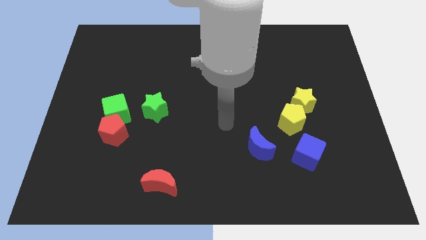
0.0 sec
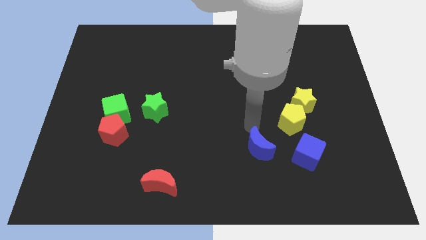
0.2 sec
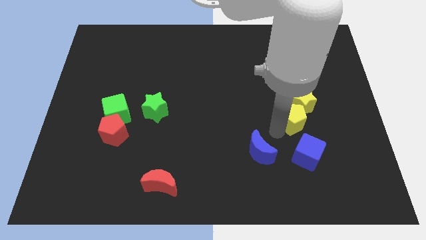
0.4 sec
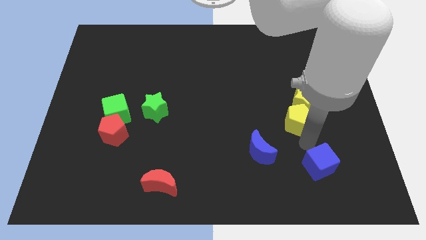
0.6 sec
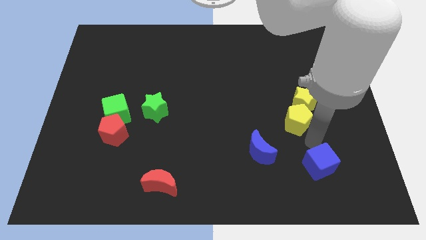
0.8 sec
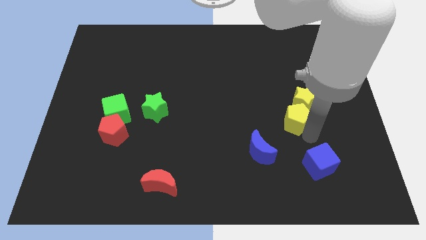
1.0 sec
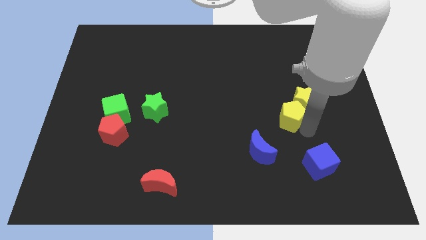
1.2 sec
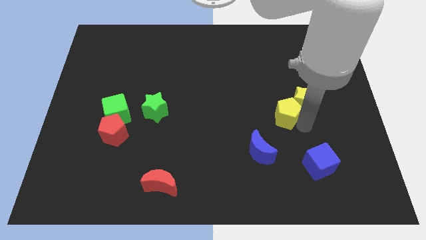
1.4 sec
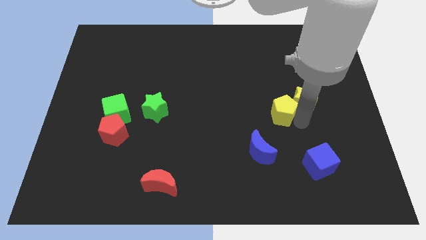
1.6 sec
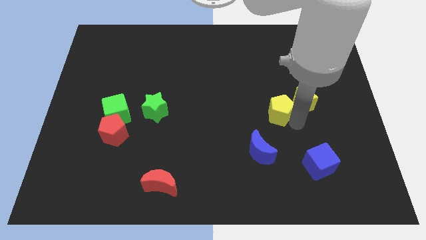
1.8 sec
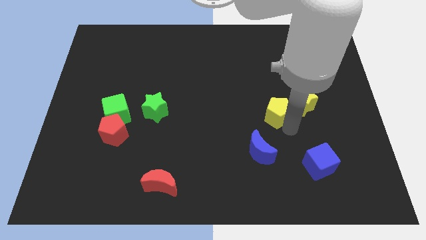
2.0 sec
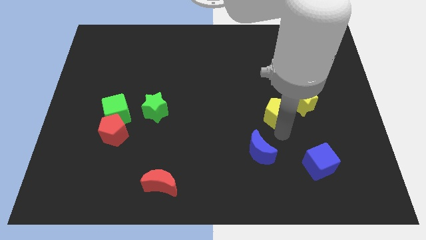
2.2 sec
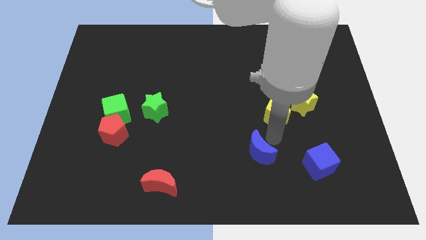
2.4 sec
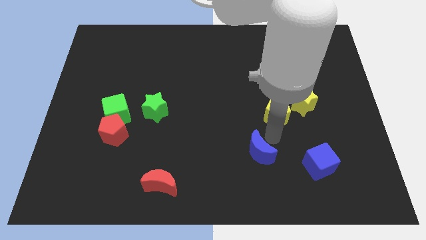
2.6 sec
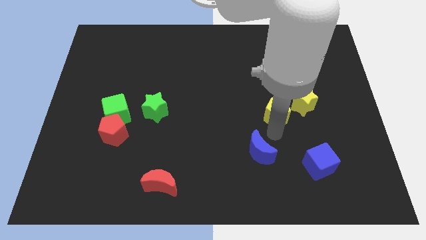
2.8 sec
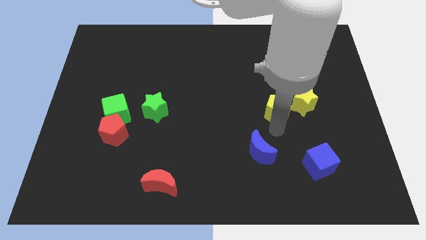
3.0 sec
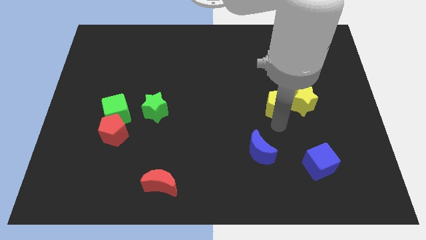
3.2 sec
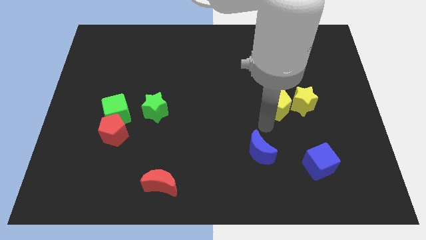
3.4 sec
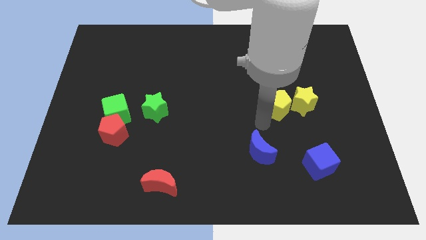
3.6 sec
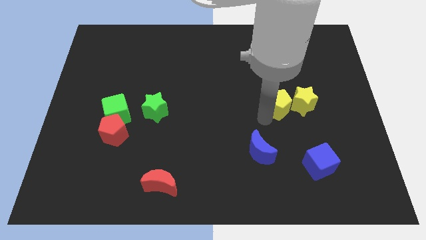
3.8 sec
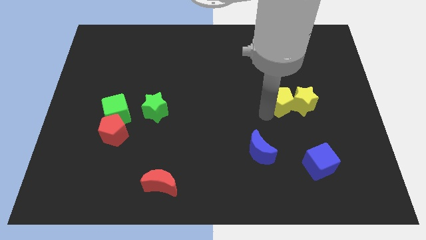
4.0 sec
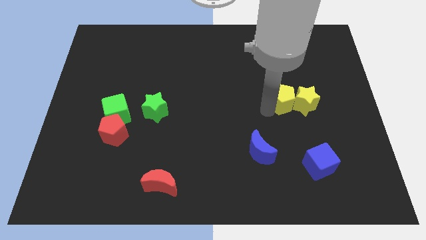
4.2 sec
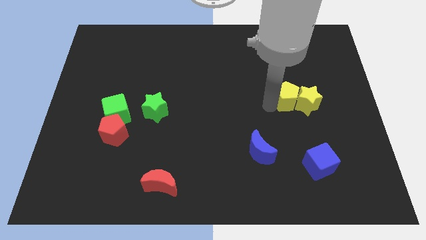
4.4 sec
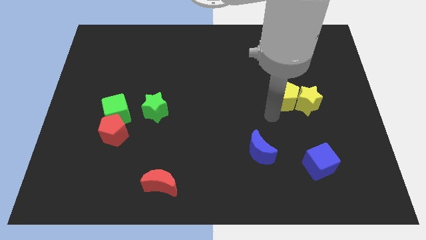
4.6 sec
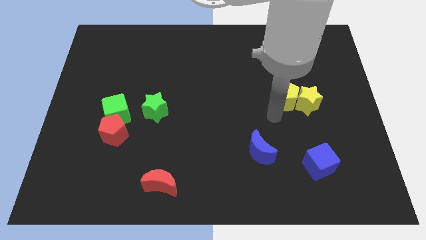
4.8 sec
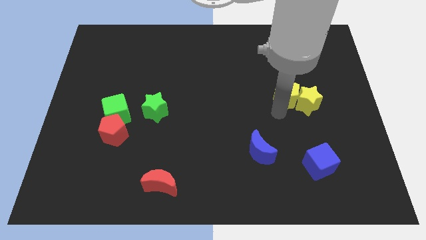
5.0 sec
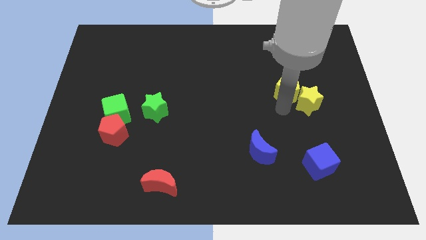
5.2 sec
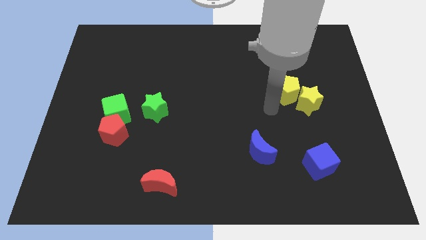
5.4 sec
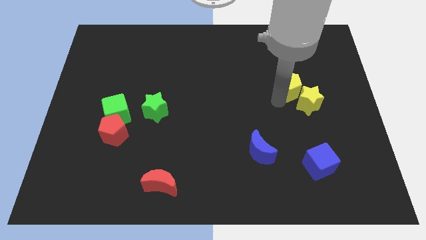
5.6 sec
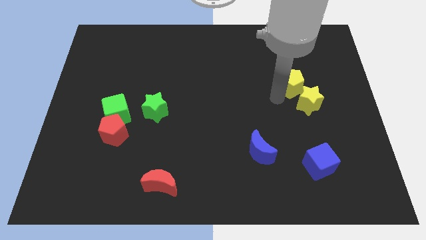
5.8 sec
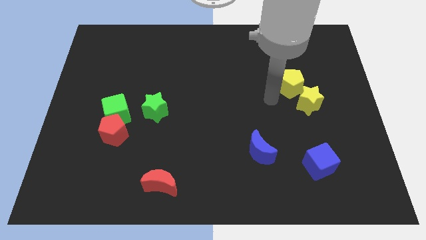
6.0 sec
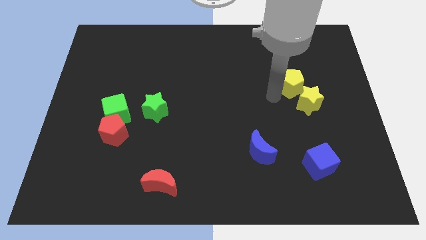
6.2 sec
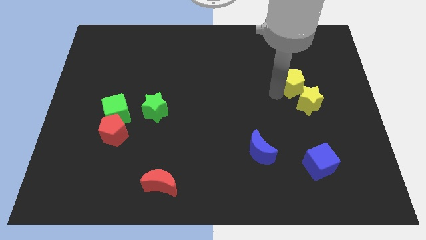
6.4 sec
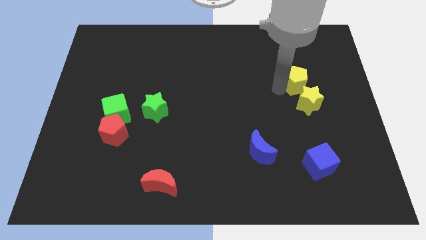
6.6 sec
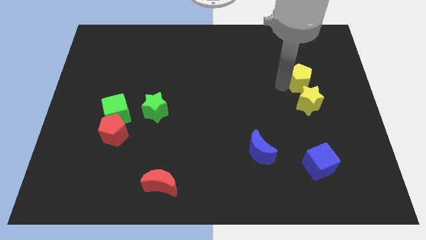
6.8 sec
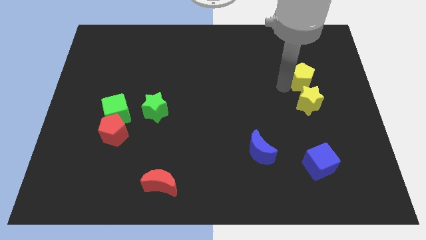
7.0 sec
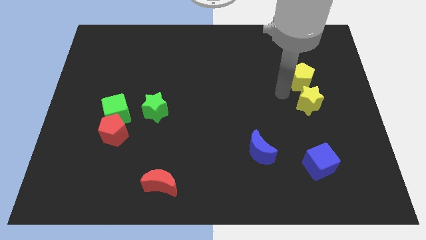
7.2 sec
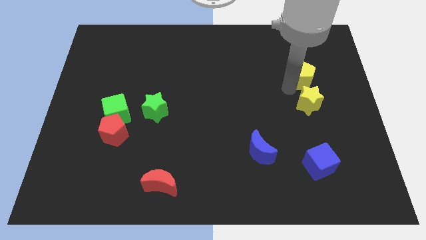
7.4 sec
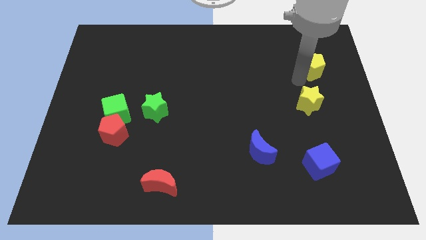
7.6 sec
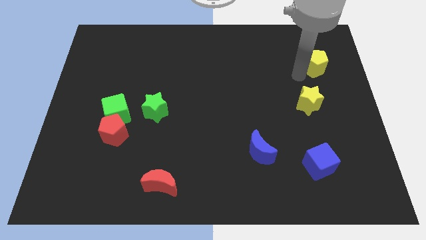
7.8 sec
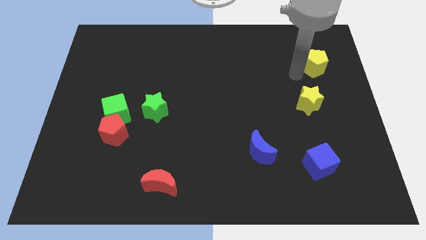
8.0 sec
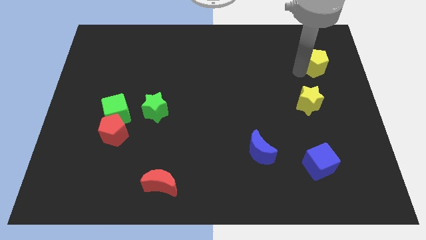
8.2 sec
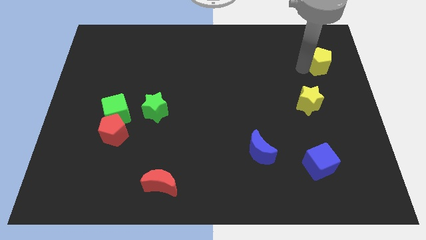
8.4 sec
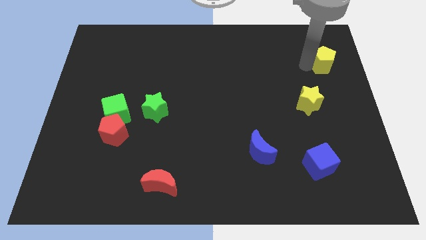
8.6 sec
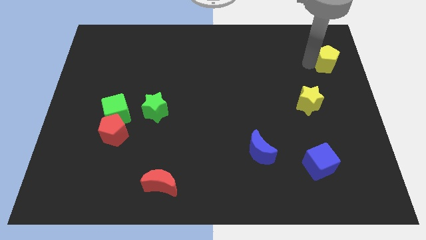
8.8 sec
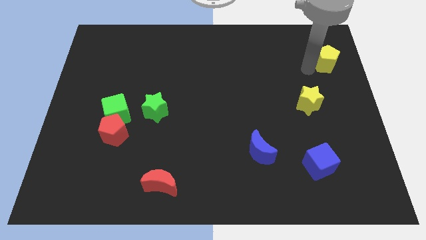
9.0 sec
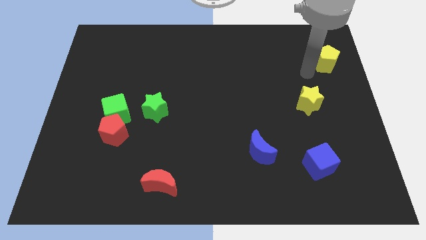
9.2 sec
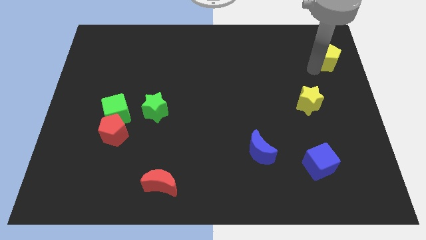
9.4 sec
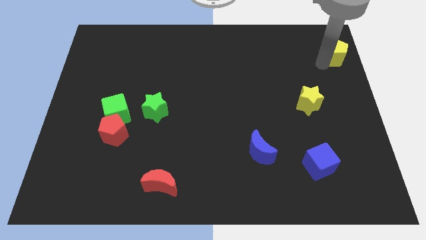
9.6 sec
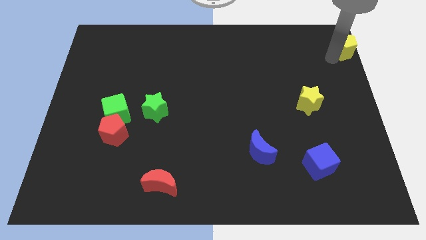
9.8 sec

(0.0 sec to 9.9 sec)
slide the yellow pentagon to the top right

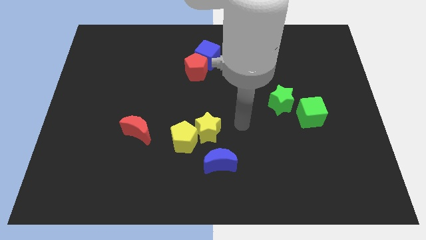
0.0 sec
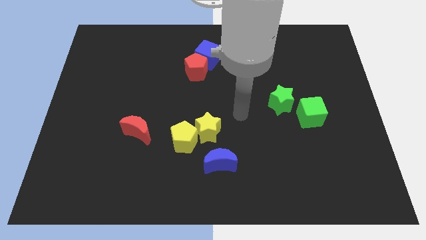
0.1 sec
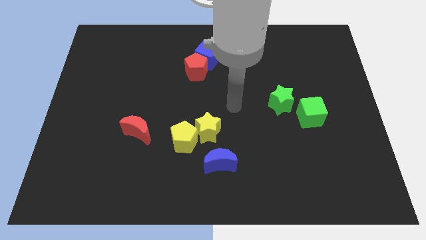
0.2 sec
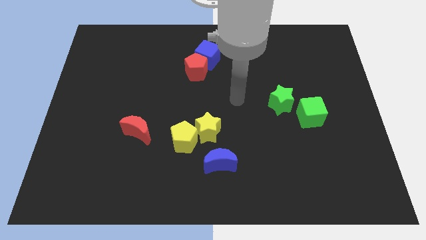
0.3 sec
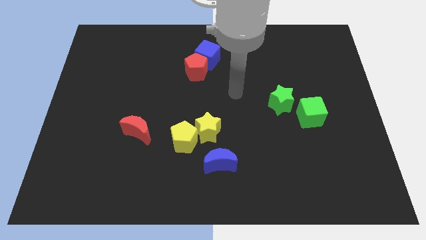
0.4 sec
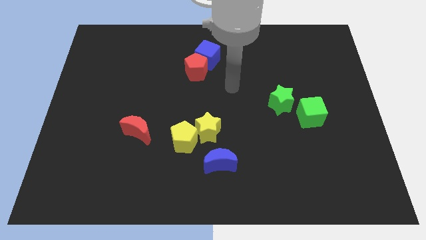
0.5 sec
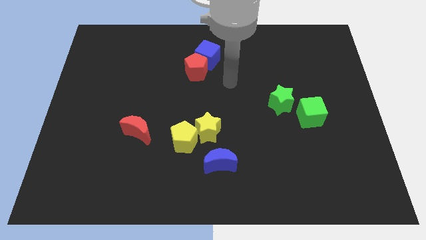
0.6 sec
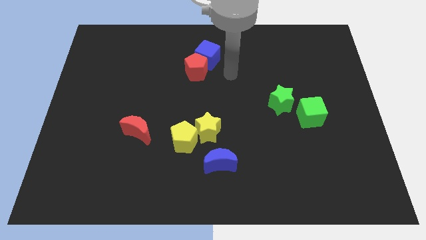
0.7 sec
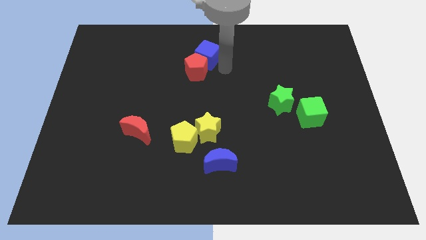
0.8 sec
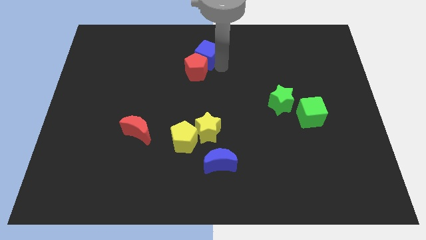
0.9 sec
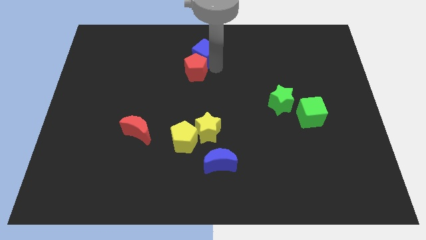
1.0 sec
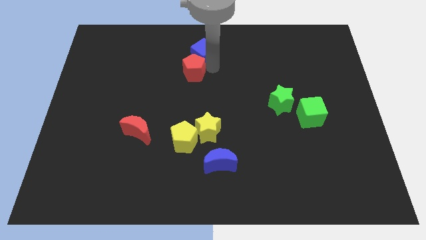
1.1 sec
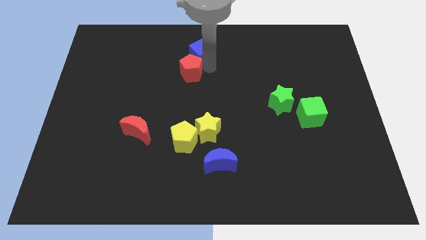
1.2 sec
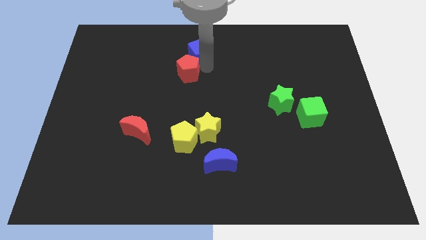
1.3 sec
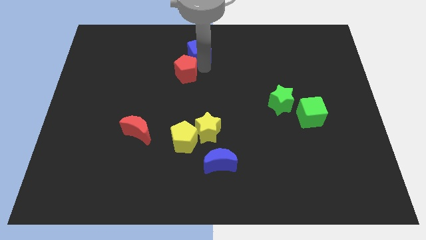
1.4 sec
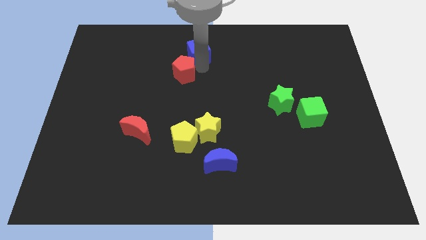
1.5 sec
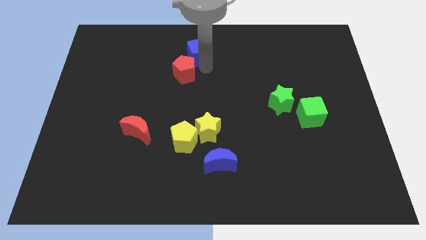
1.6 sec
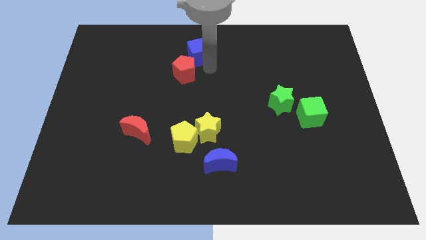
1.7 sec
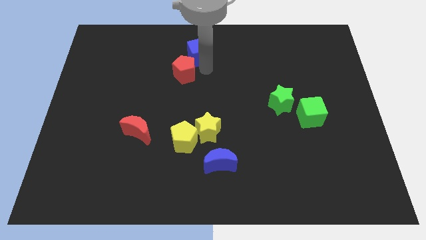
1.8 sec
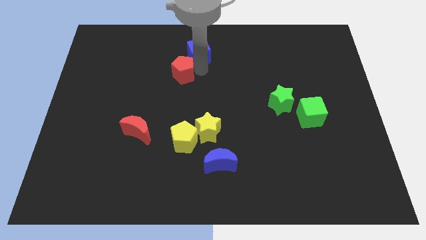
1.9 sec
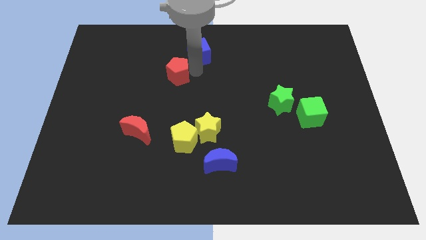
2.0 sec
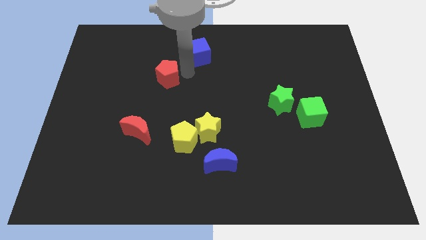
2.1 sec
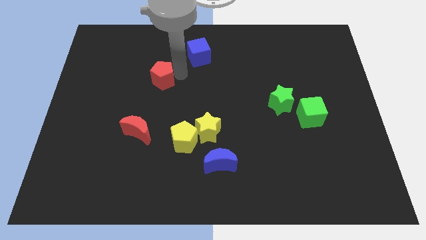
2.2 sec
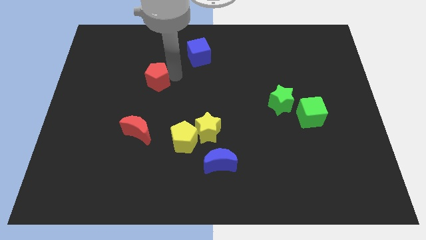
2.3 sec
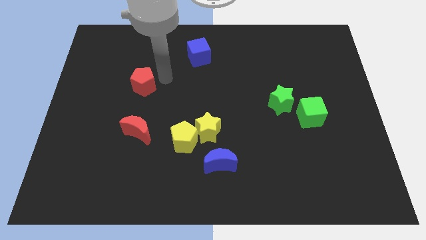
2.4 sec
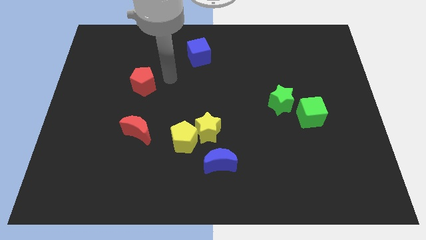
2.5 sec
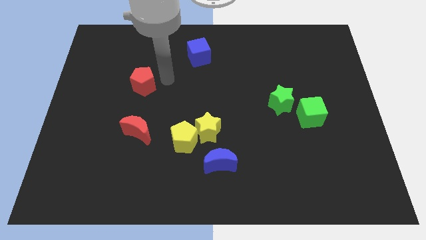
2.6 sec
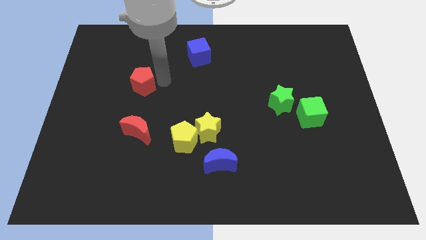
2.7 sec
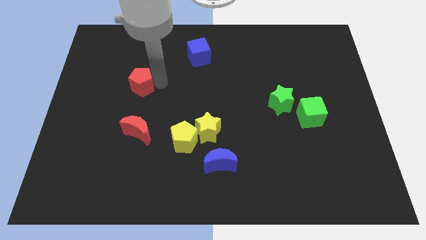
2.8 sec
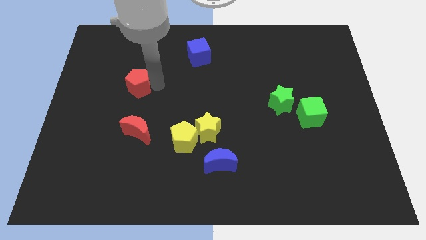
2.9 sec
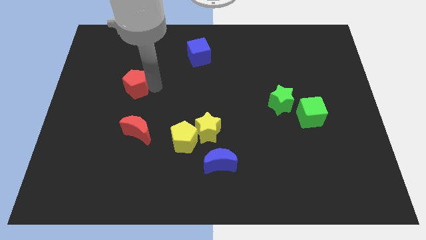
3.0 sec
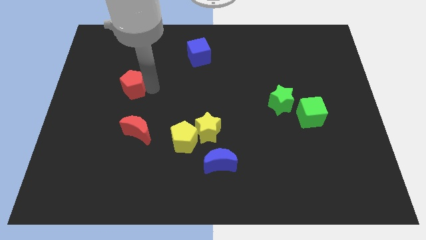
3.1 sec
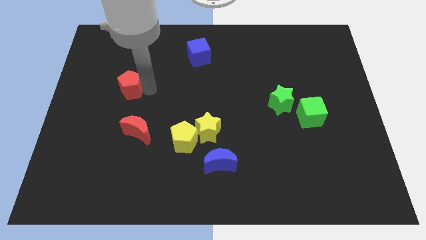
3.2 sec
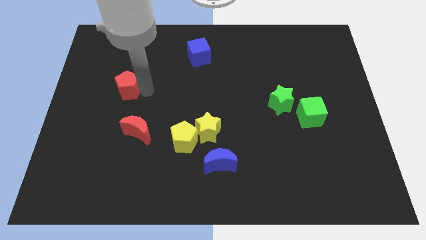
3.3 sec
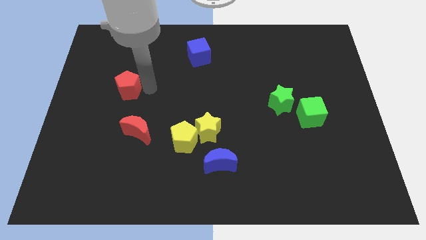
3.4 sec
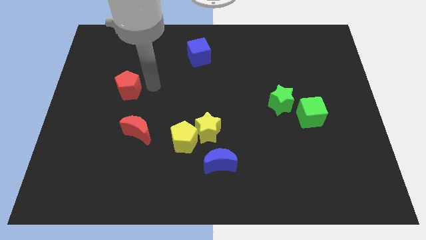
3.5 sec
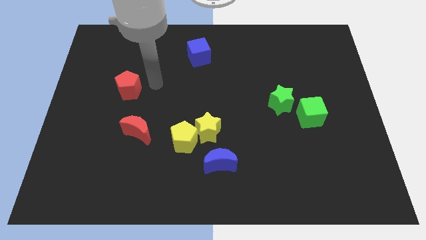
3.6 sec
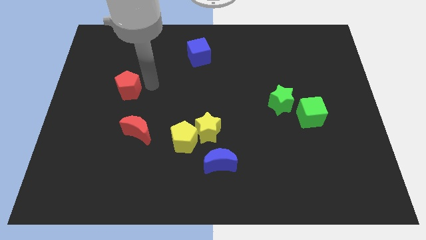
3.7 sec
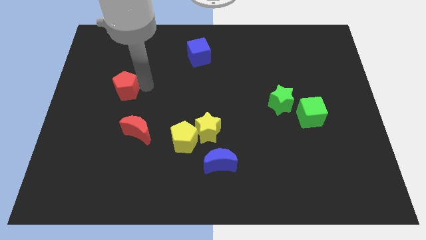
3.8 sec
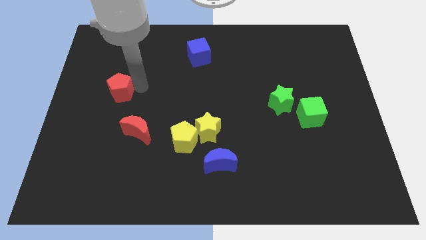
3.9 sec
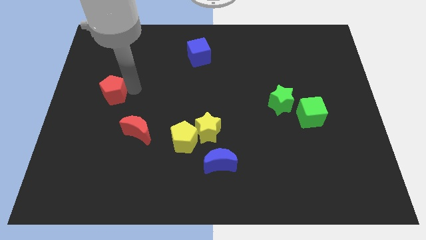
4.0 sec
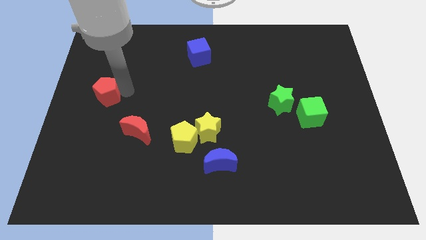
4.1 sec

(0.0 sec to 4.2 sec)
move the red pentagon to the left side
